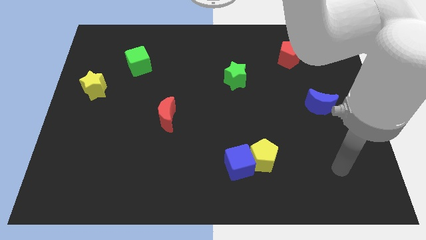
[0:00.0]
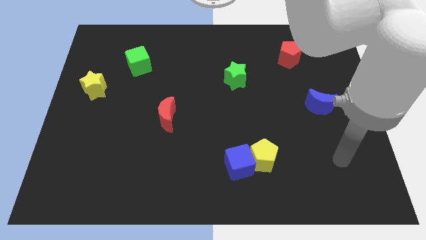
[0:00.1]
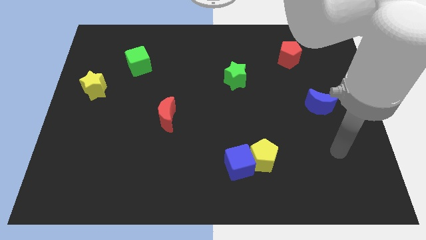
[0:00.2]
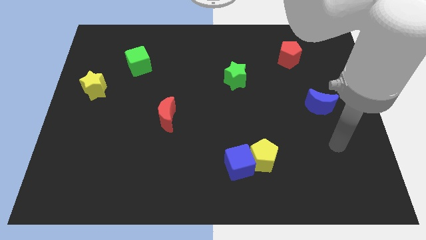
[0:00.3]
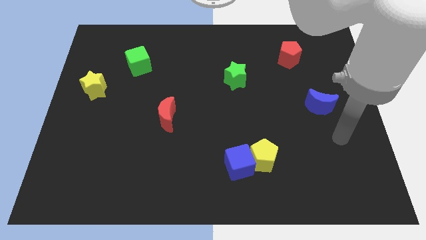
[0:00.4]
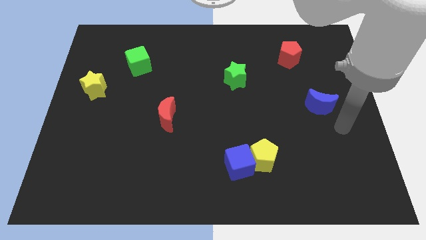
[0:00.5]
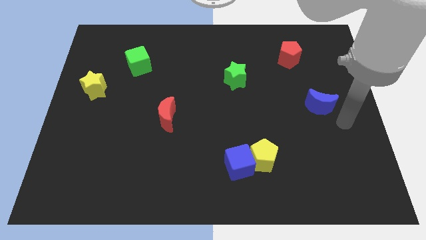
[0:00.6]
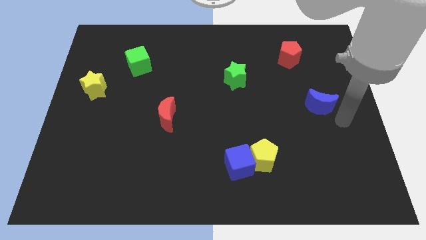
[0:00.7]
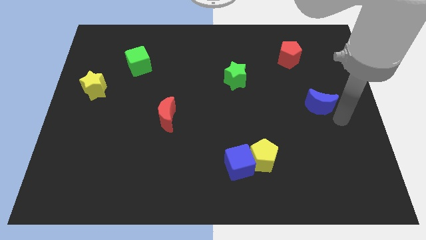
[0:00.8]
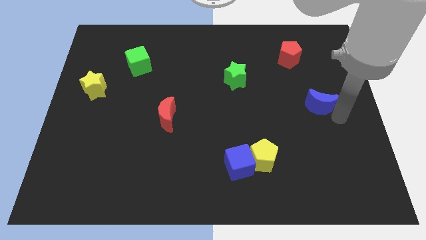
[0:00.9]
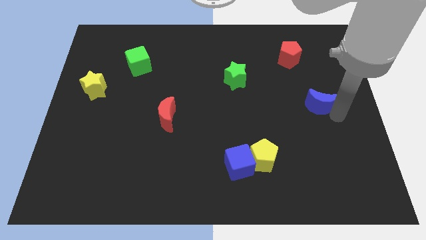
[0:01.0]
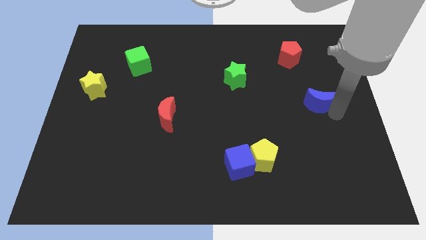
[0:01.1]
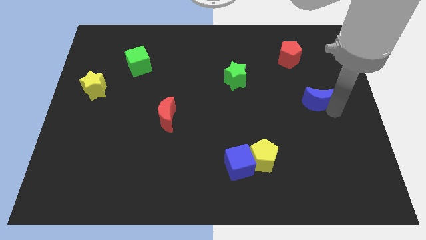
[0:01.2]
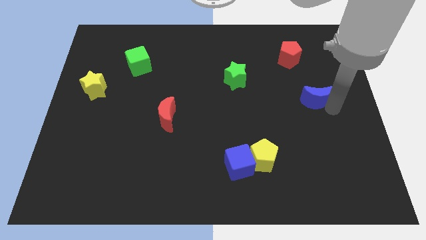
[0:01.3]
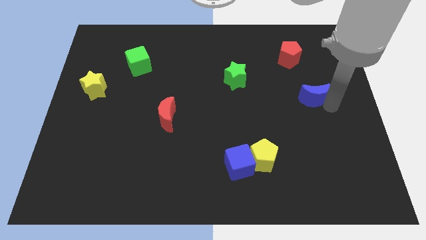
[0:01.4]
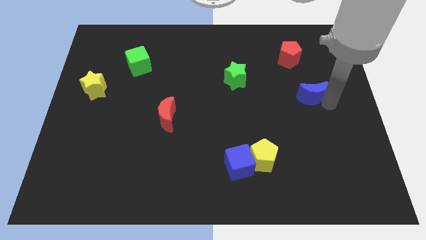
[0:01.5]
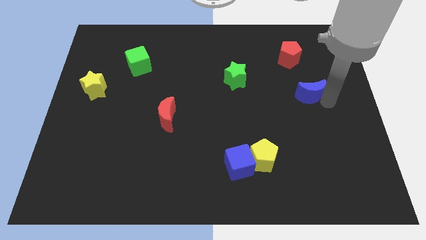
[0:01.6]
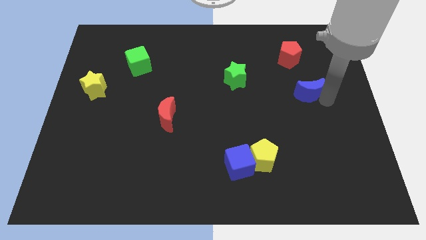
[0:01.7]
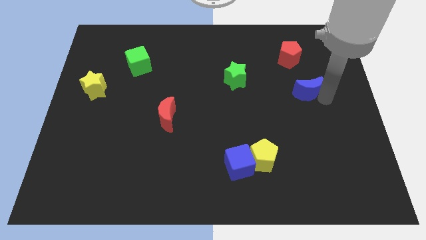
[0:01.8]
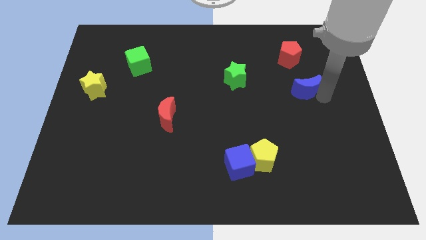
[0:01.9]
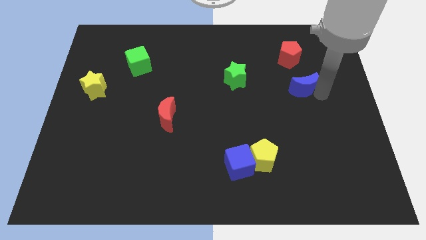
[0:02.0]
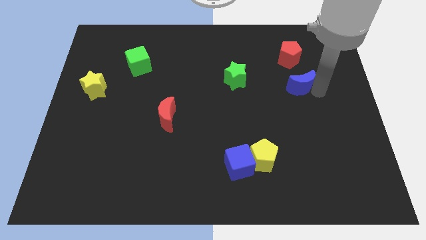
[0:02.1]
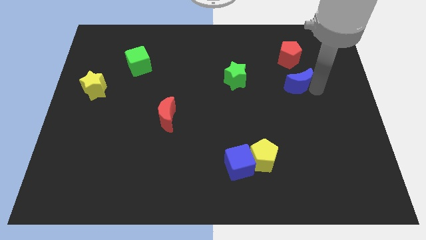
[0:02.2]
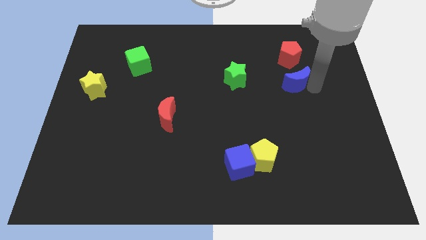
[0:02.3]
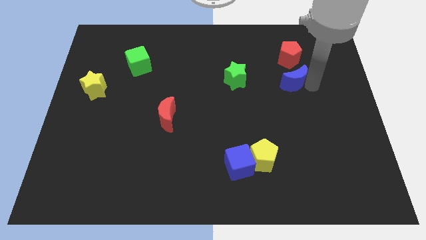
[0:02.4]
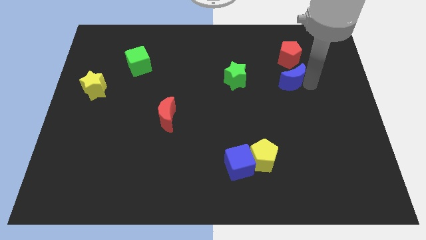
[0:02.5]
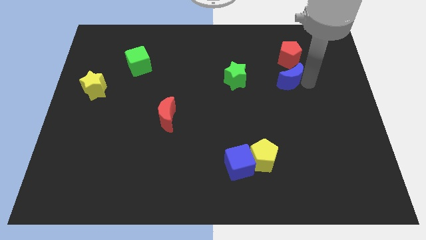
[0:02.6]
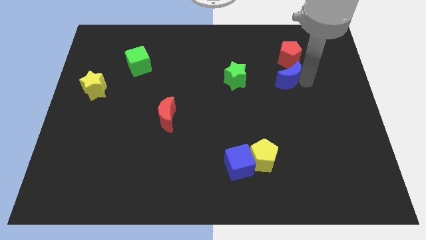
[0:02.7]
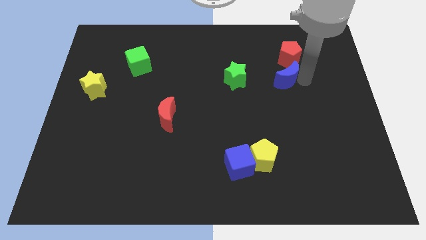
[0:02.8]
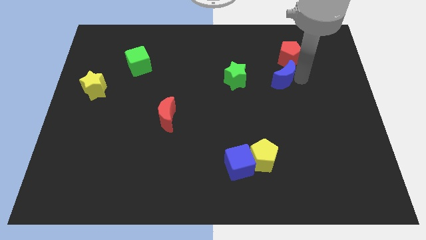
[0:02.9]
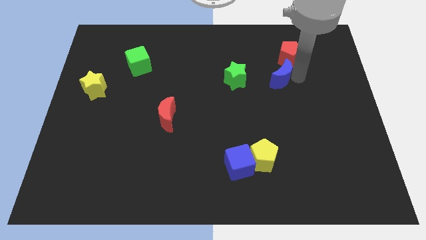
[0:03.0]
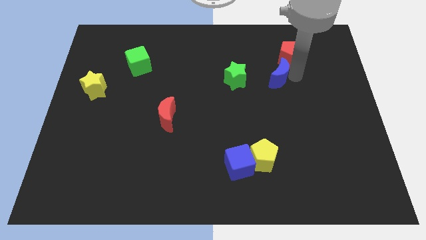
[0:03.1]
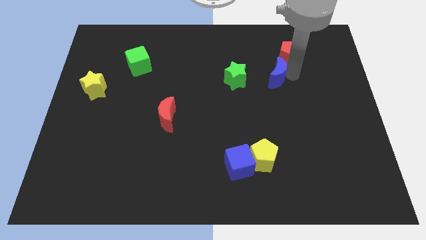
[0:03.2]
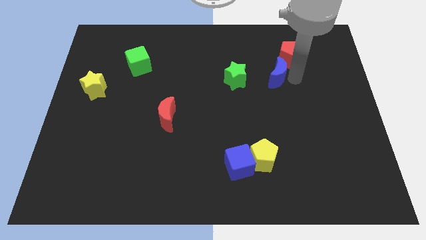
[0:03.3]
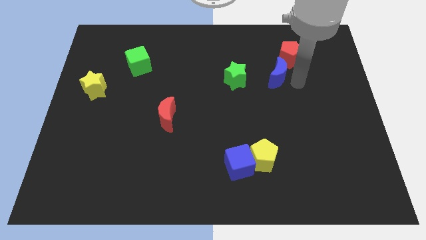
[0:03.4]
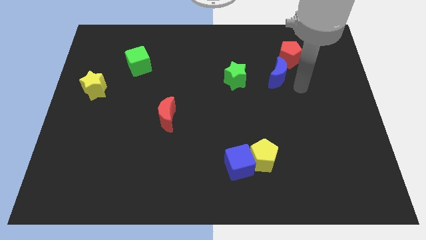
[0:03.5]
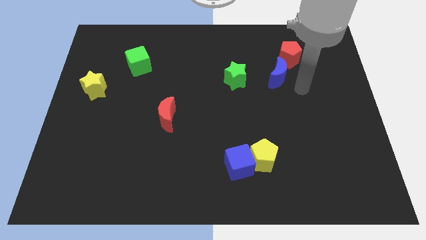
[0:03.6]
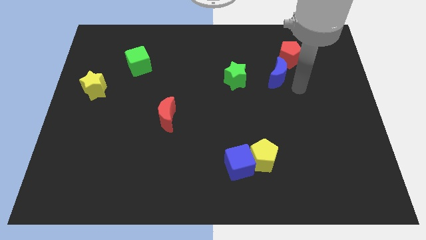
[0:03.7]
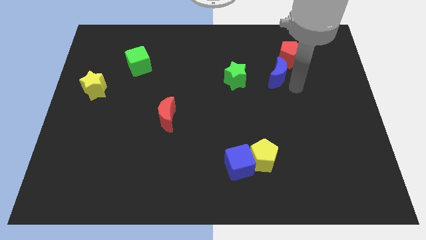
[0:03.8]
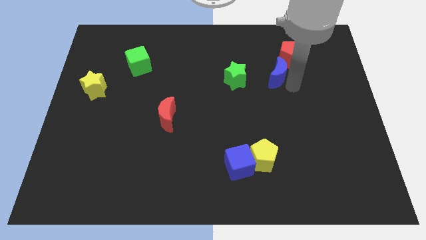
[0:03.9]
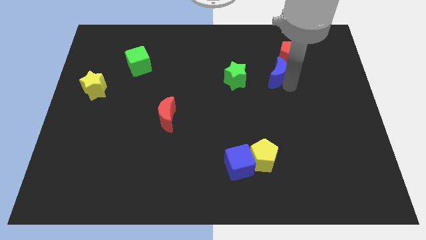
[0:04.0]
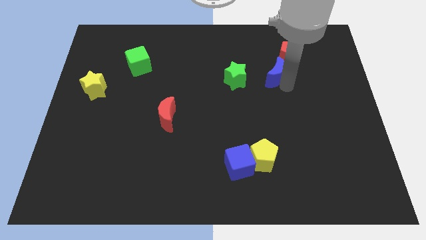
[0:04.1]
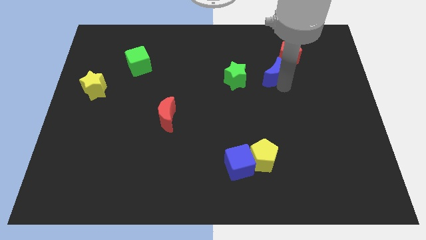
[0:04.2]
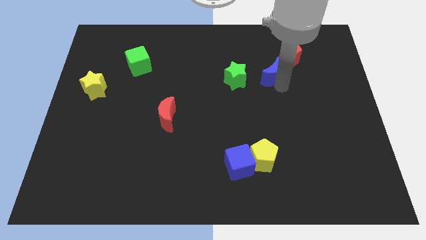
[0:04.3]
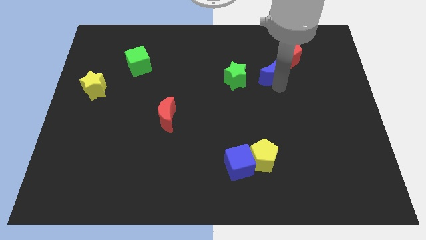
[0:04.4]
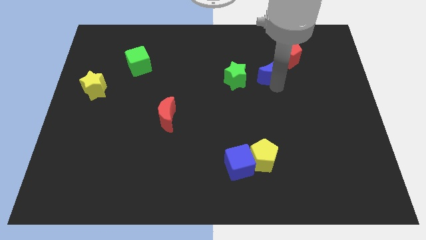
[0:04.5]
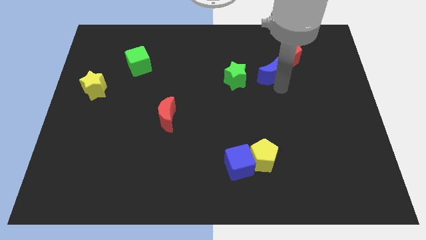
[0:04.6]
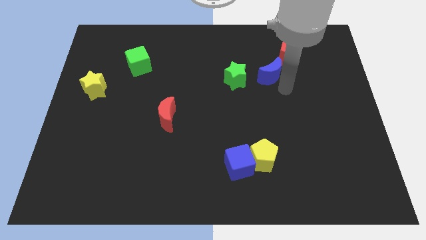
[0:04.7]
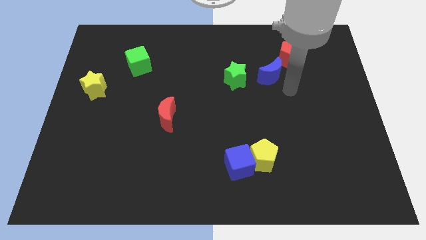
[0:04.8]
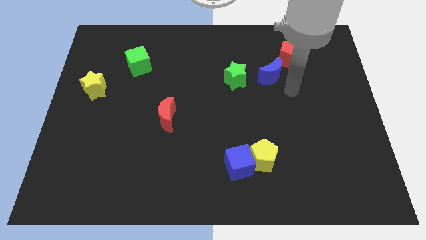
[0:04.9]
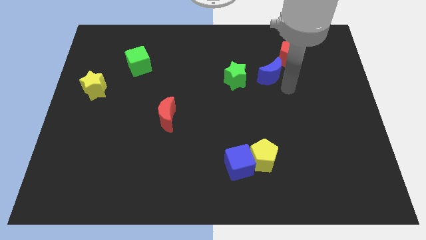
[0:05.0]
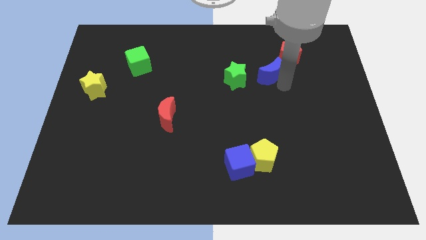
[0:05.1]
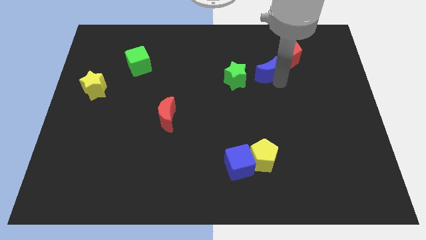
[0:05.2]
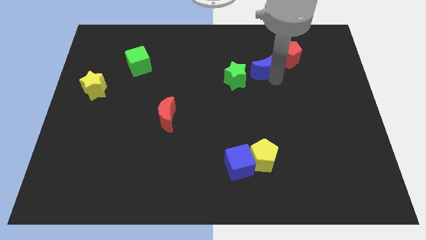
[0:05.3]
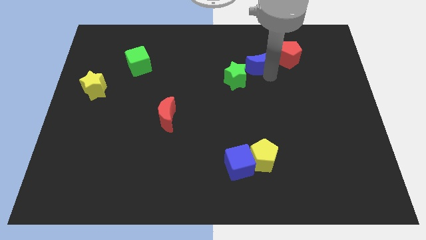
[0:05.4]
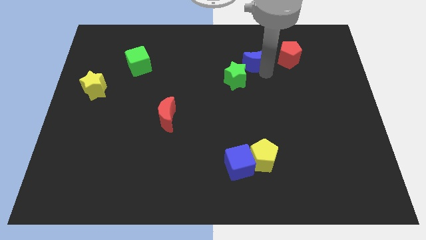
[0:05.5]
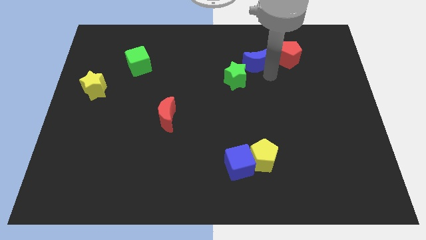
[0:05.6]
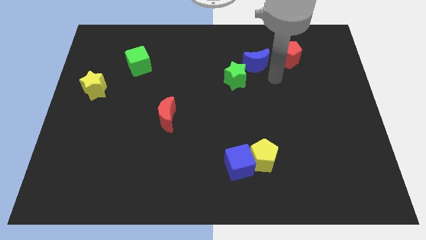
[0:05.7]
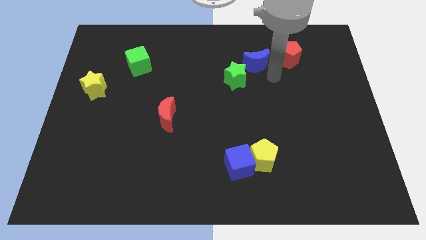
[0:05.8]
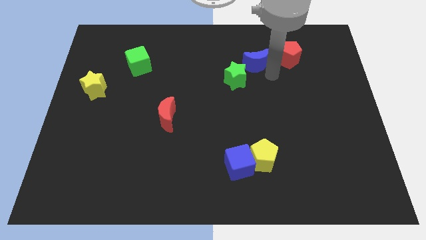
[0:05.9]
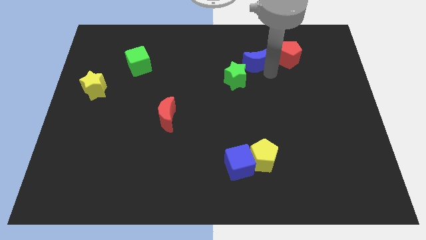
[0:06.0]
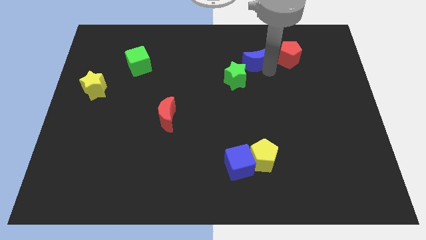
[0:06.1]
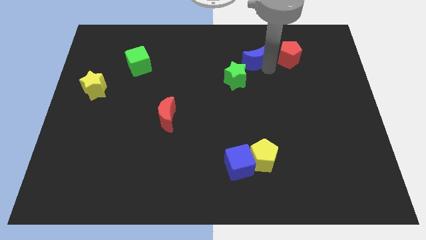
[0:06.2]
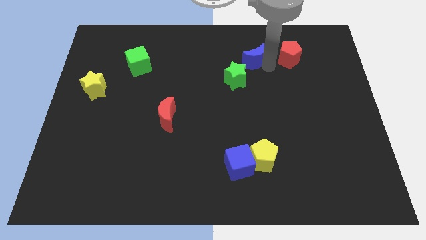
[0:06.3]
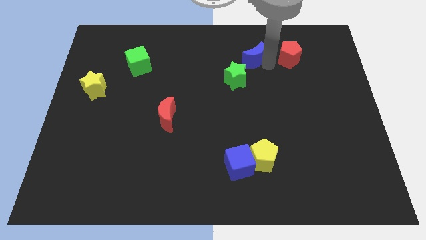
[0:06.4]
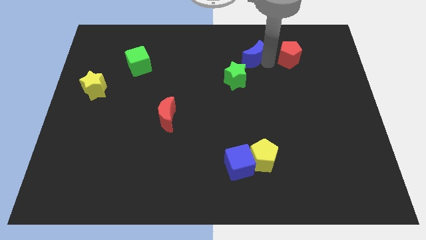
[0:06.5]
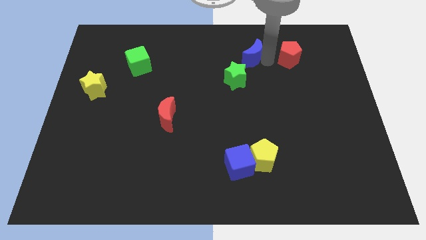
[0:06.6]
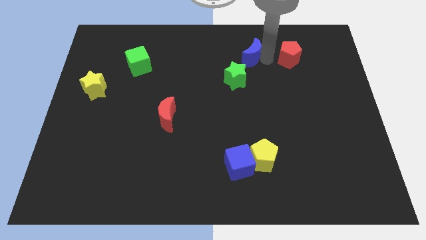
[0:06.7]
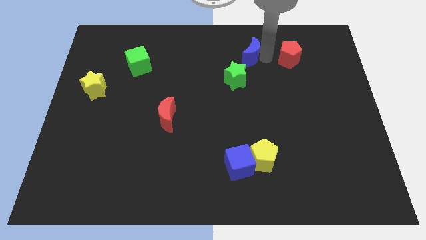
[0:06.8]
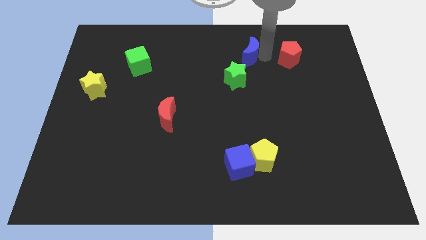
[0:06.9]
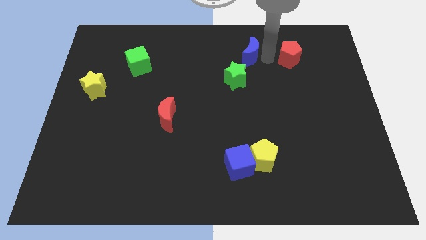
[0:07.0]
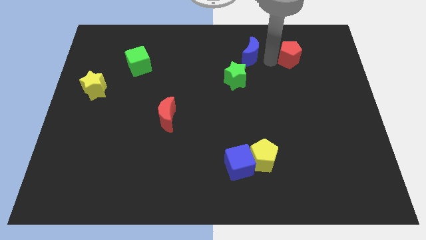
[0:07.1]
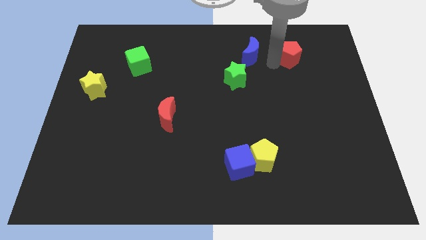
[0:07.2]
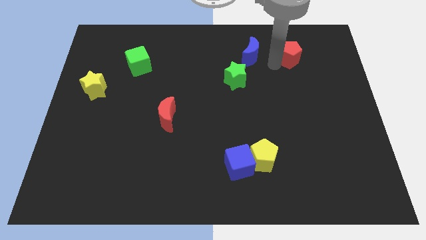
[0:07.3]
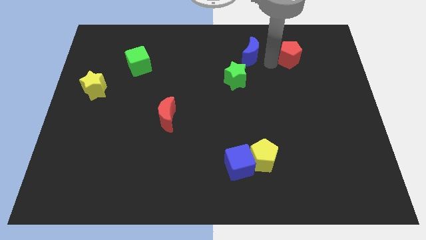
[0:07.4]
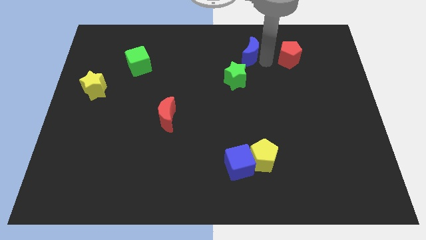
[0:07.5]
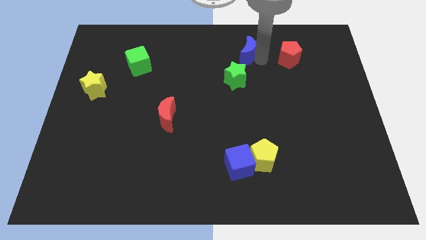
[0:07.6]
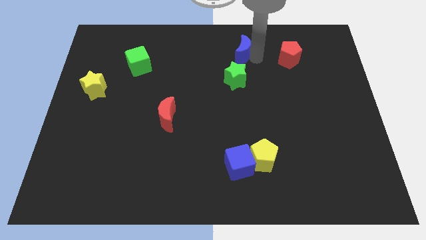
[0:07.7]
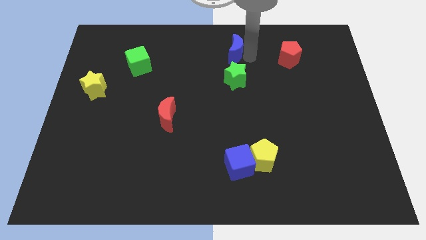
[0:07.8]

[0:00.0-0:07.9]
put the blue moon to the top

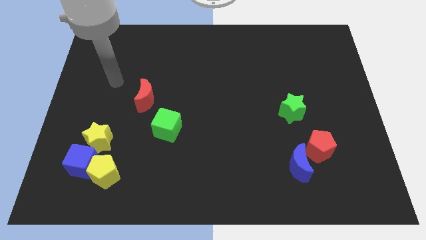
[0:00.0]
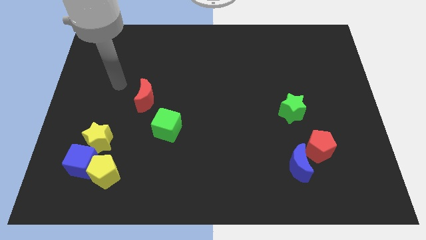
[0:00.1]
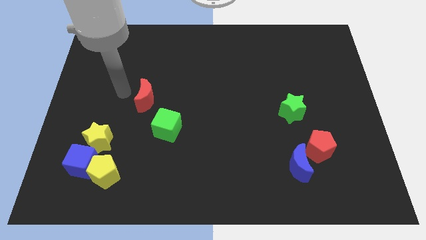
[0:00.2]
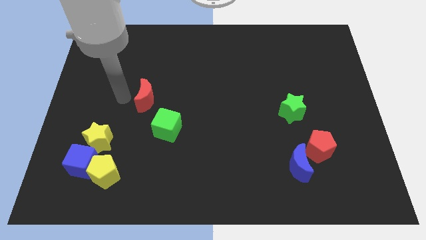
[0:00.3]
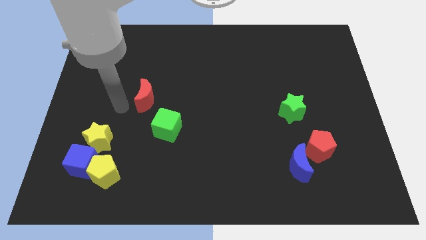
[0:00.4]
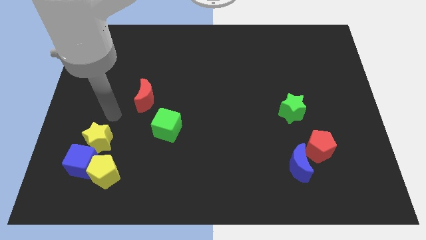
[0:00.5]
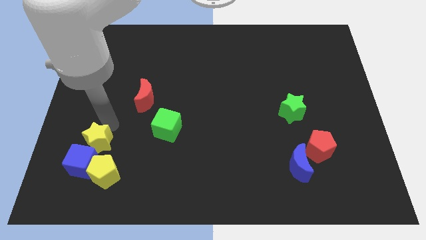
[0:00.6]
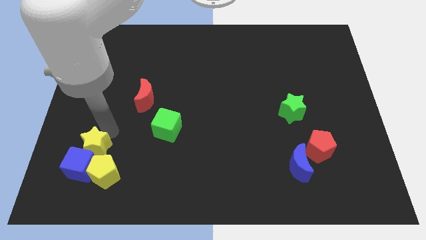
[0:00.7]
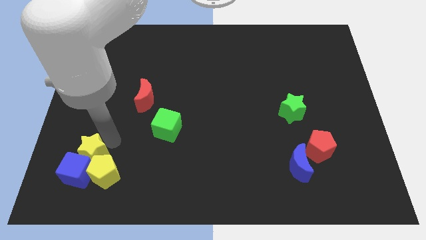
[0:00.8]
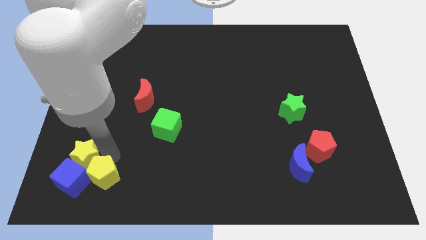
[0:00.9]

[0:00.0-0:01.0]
slide the blue cube to the lower left corner
